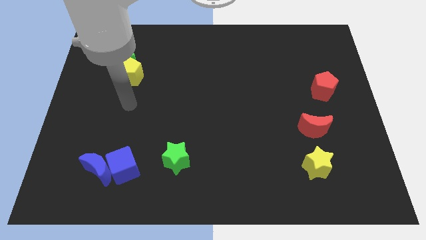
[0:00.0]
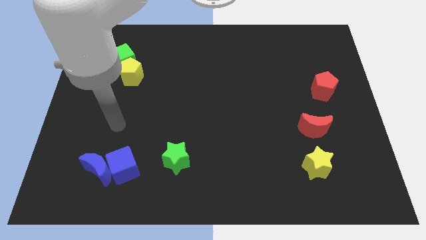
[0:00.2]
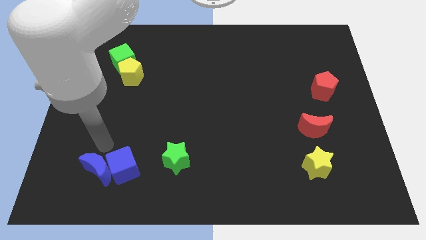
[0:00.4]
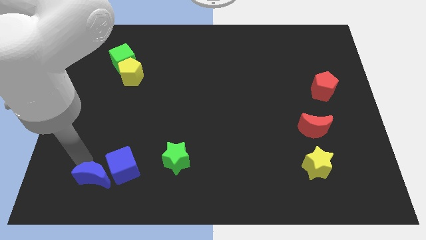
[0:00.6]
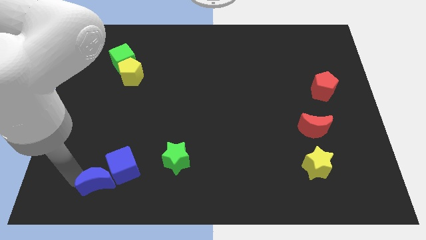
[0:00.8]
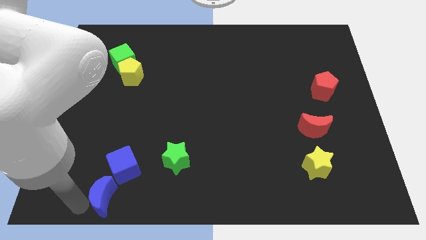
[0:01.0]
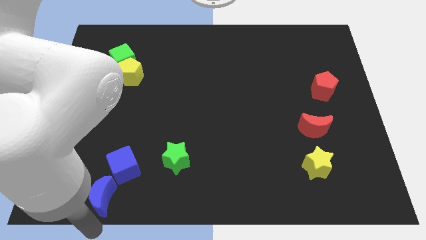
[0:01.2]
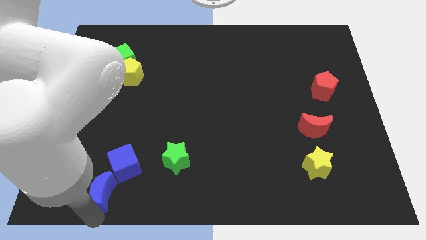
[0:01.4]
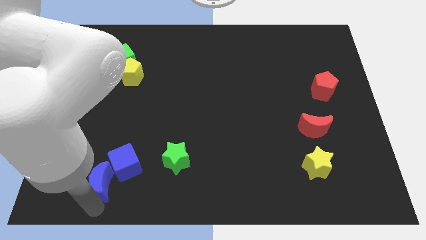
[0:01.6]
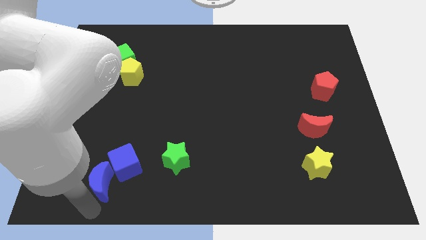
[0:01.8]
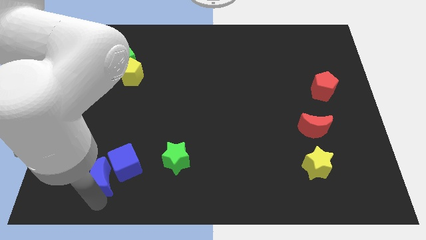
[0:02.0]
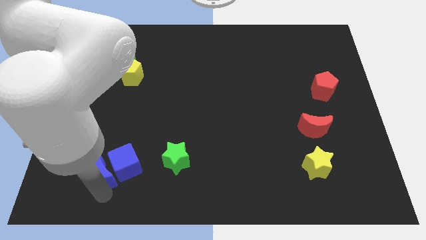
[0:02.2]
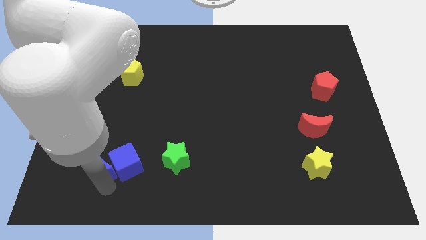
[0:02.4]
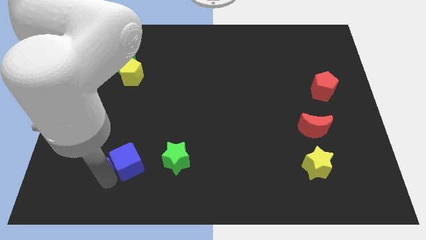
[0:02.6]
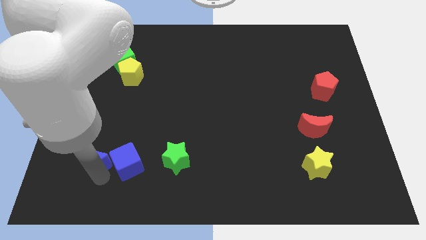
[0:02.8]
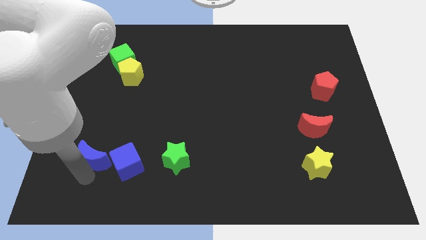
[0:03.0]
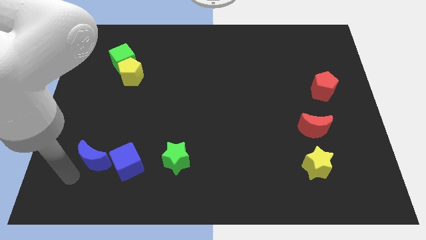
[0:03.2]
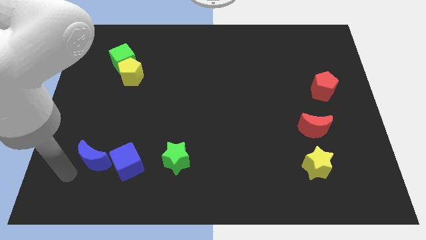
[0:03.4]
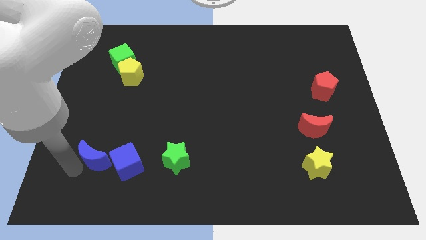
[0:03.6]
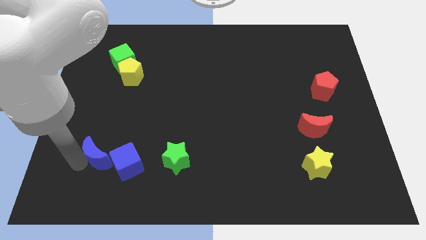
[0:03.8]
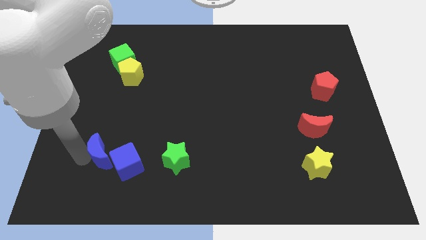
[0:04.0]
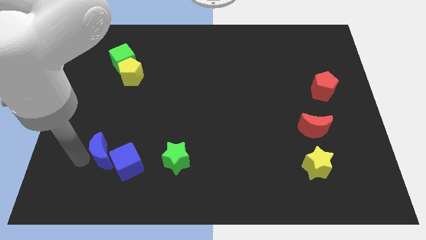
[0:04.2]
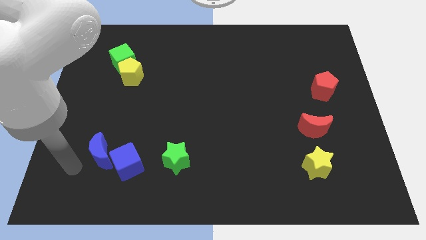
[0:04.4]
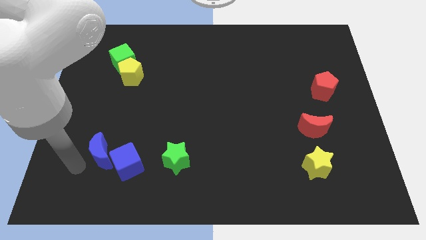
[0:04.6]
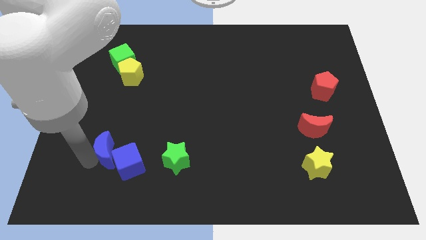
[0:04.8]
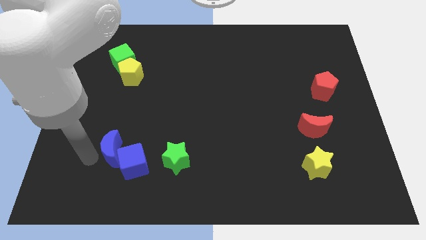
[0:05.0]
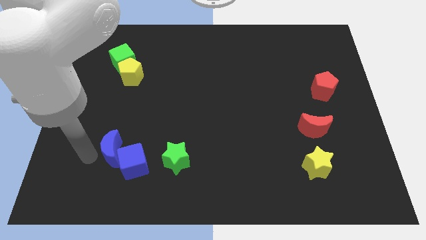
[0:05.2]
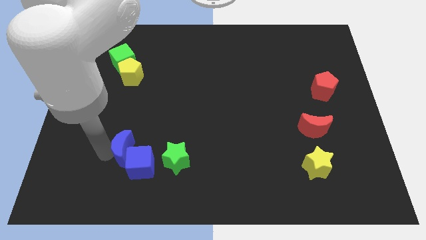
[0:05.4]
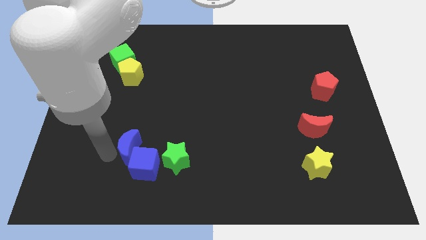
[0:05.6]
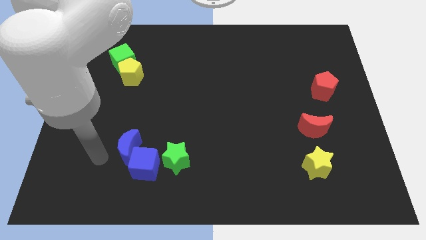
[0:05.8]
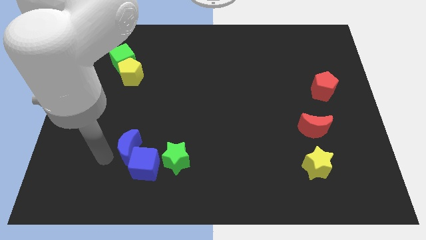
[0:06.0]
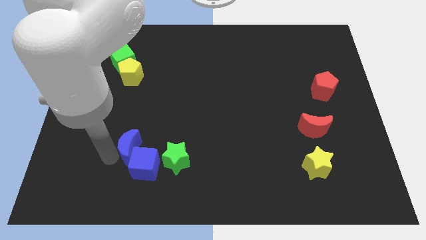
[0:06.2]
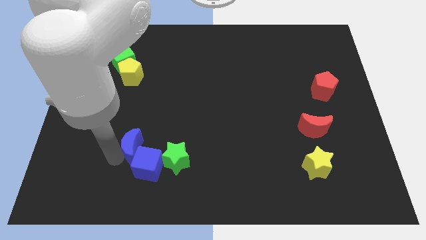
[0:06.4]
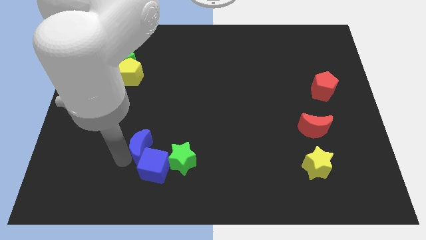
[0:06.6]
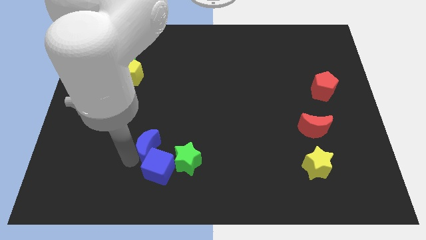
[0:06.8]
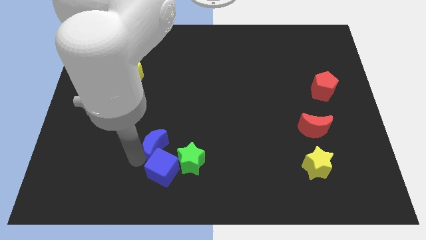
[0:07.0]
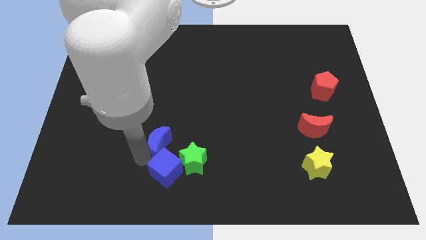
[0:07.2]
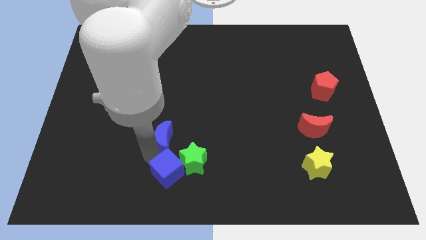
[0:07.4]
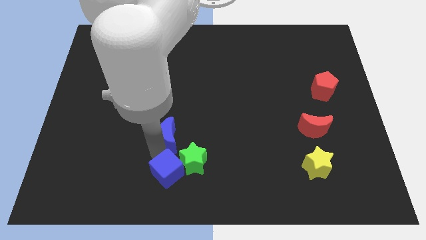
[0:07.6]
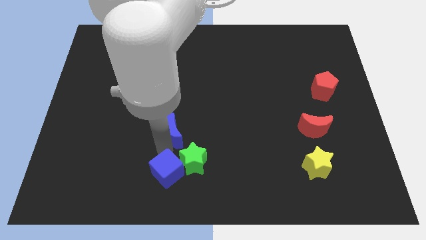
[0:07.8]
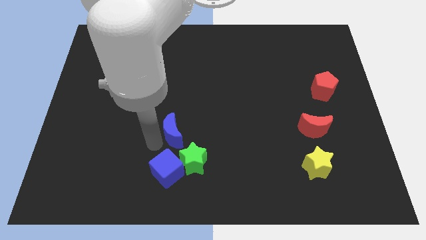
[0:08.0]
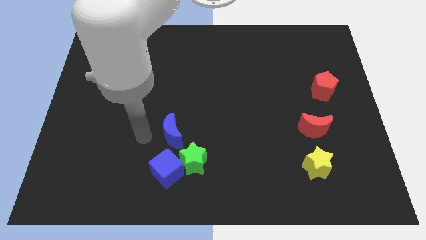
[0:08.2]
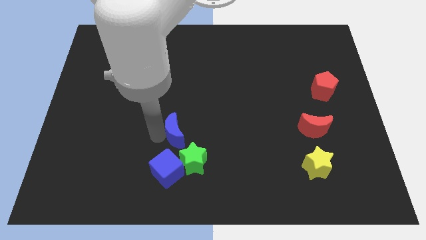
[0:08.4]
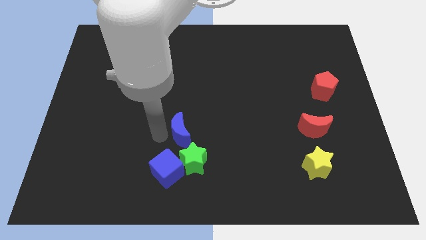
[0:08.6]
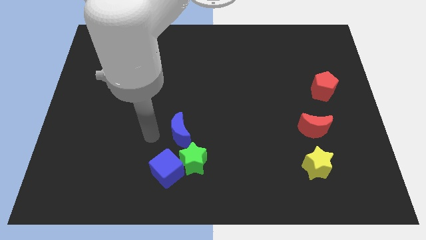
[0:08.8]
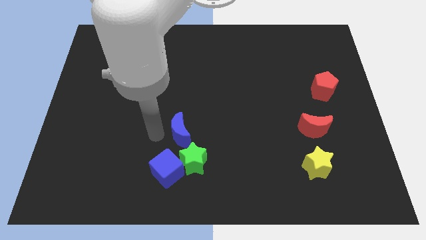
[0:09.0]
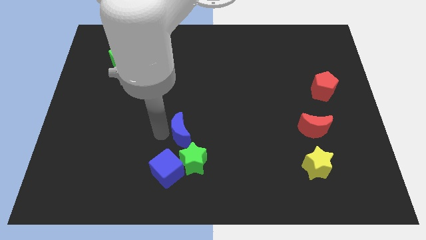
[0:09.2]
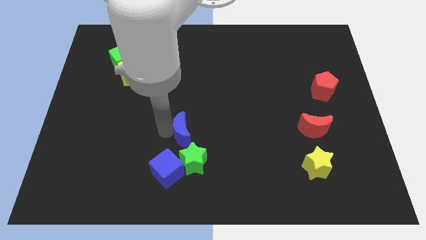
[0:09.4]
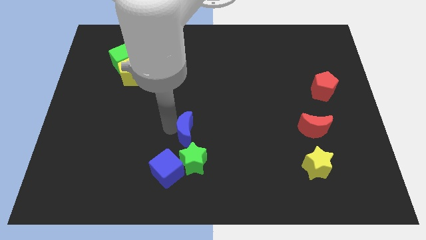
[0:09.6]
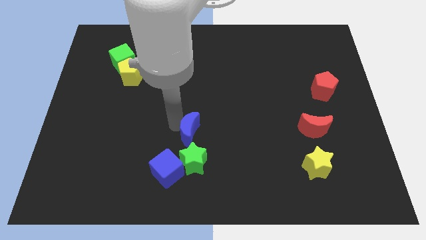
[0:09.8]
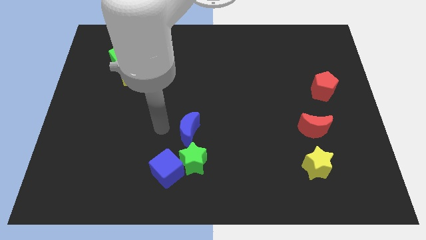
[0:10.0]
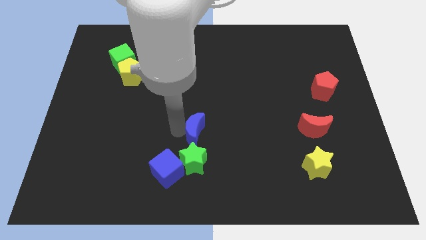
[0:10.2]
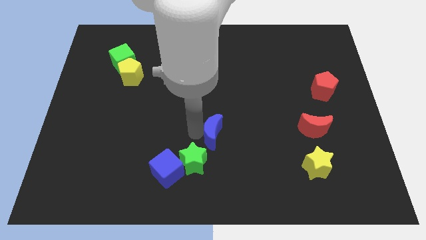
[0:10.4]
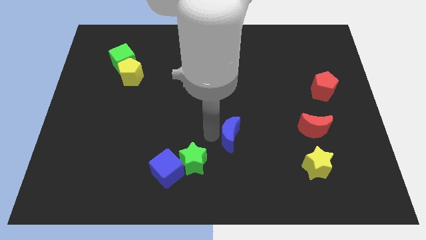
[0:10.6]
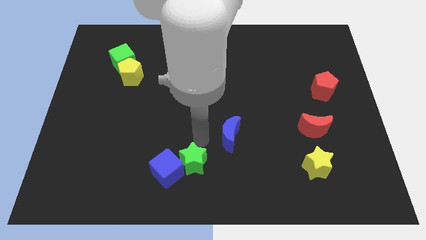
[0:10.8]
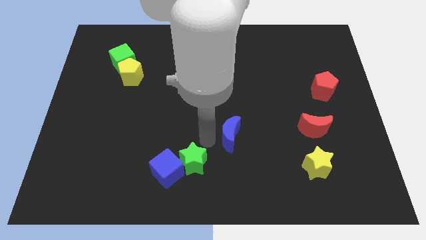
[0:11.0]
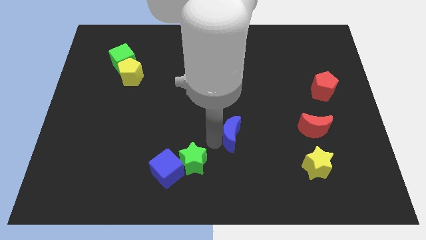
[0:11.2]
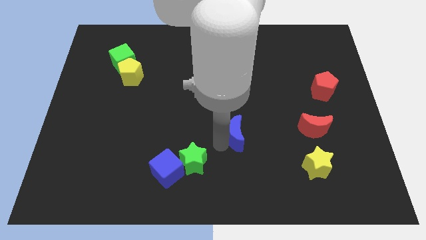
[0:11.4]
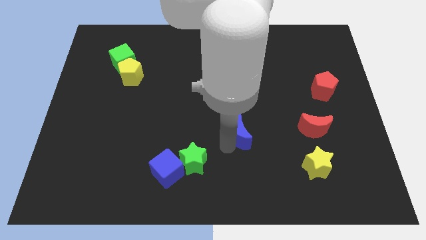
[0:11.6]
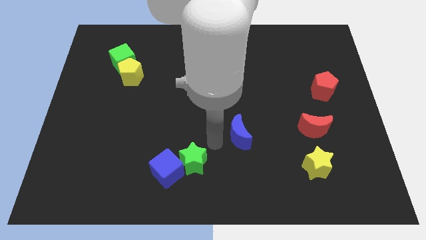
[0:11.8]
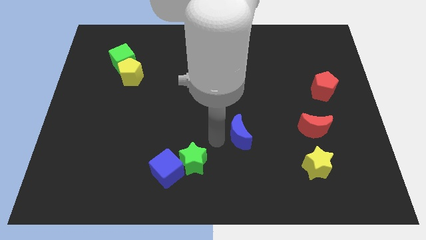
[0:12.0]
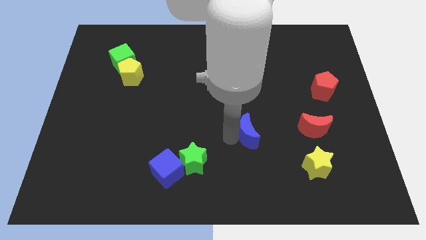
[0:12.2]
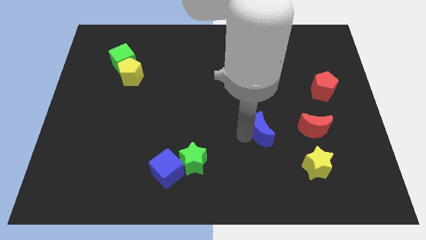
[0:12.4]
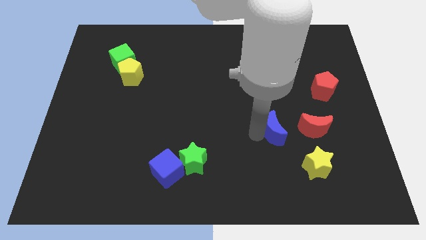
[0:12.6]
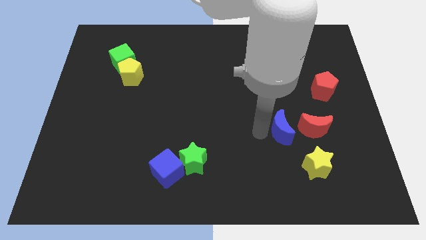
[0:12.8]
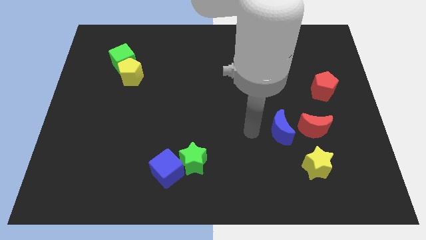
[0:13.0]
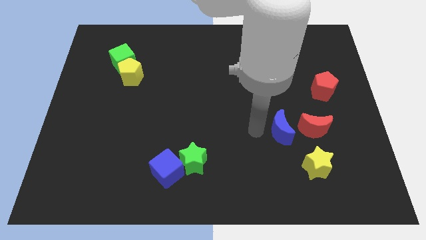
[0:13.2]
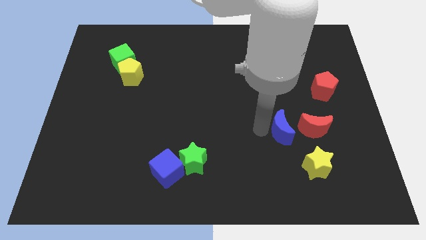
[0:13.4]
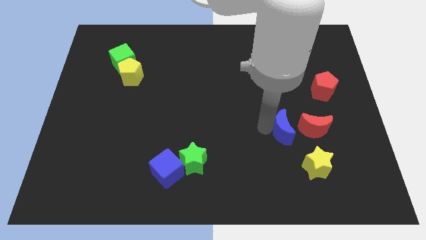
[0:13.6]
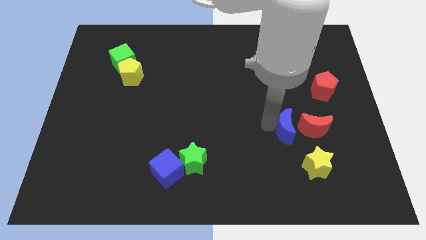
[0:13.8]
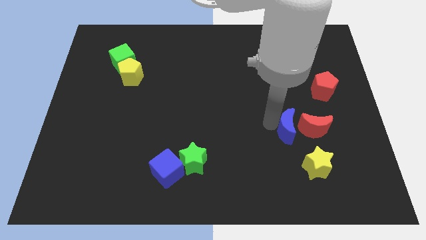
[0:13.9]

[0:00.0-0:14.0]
slide the blue moon close to the red moon
